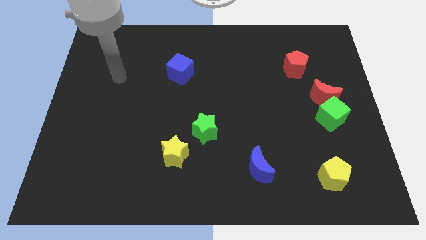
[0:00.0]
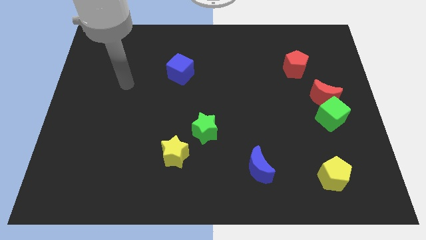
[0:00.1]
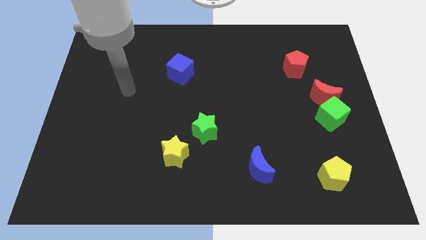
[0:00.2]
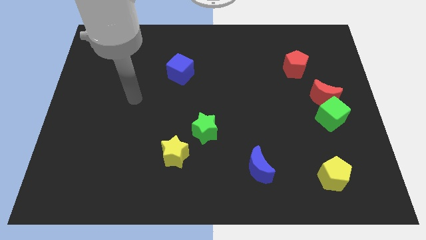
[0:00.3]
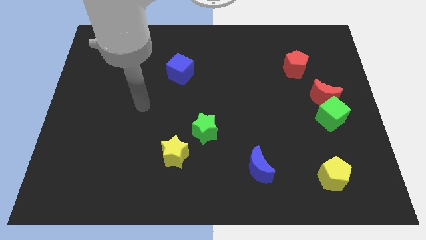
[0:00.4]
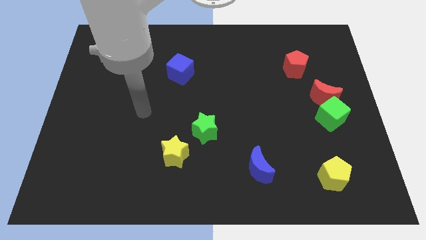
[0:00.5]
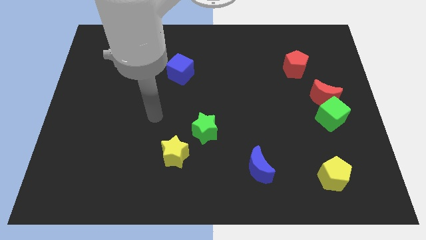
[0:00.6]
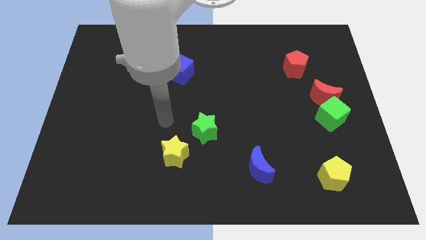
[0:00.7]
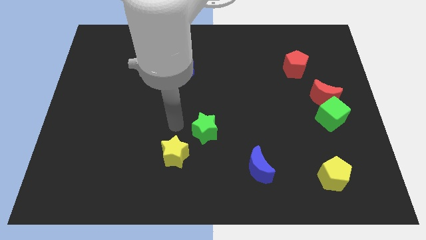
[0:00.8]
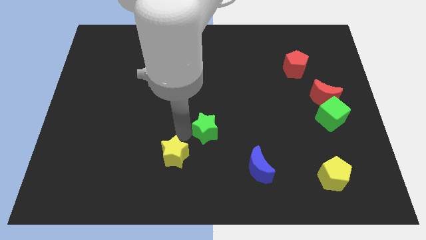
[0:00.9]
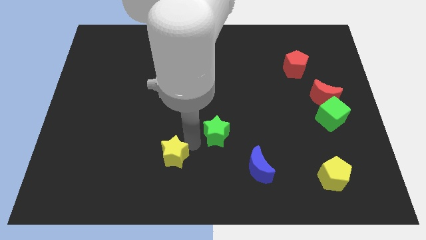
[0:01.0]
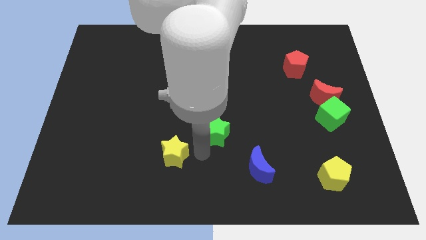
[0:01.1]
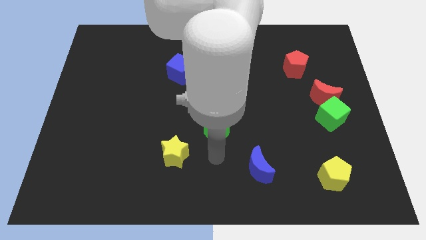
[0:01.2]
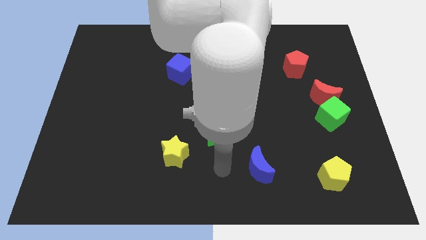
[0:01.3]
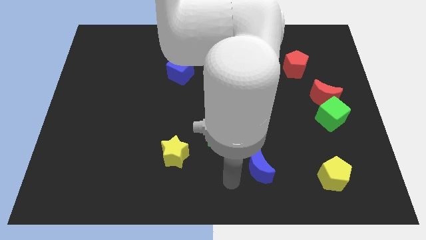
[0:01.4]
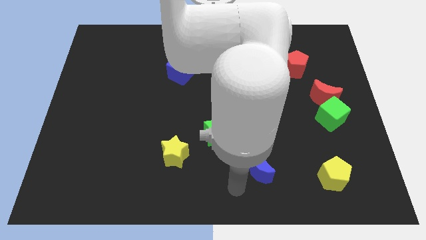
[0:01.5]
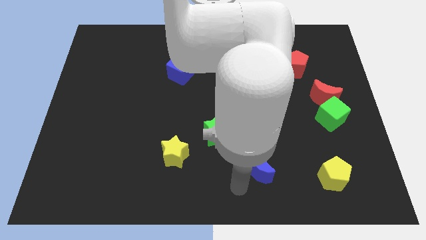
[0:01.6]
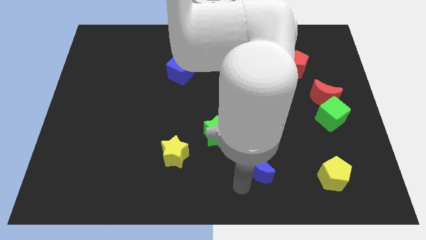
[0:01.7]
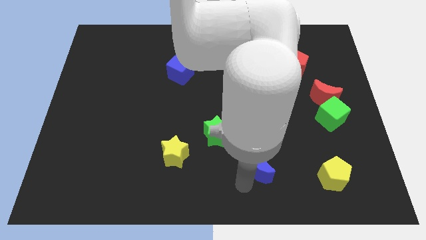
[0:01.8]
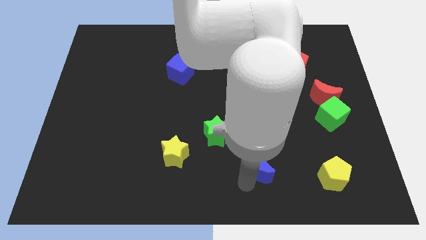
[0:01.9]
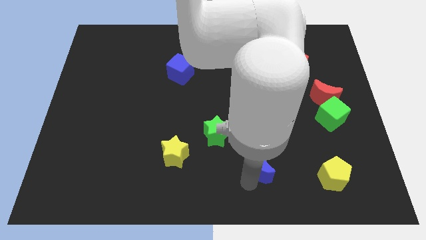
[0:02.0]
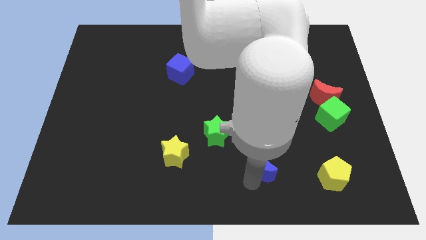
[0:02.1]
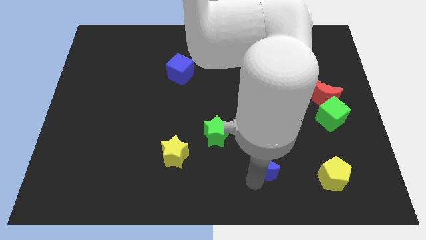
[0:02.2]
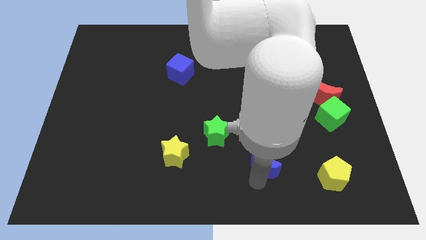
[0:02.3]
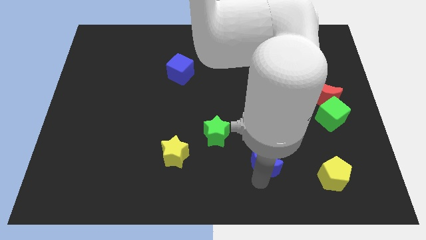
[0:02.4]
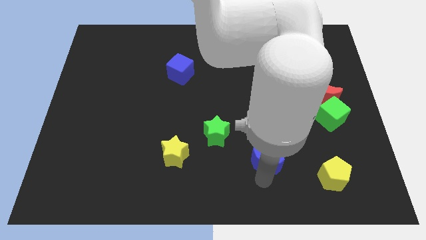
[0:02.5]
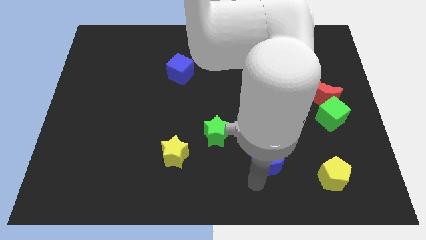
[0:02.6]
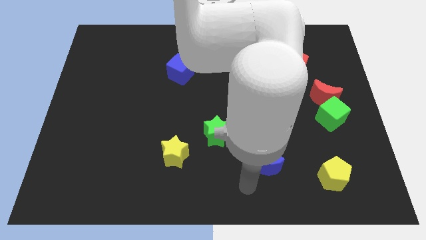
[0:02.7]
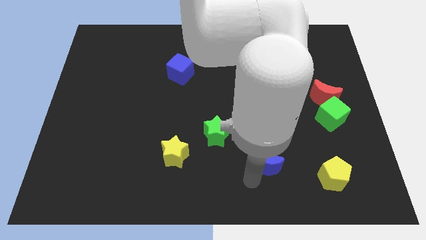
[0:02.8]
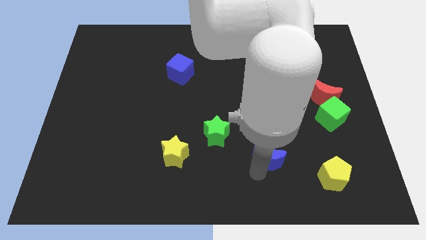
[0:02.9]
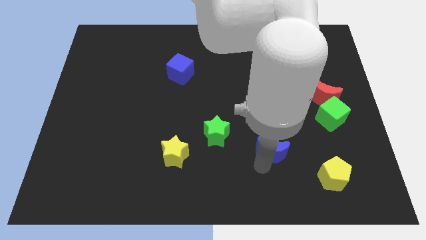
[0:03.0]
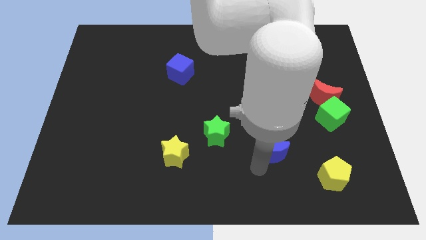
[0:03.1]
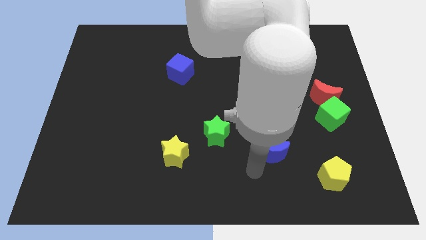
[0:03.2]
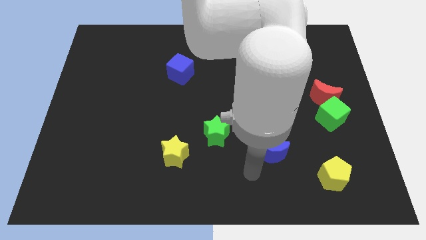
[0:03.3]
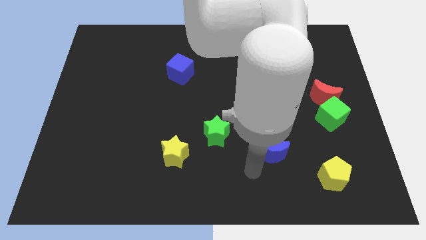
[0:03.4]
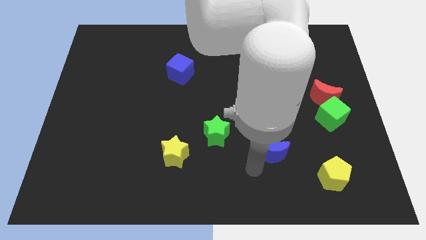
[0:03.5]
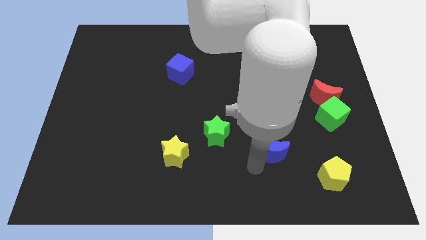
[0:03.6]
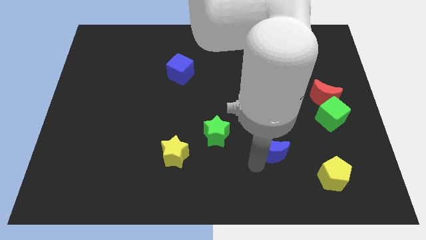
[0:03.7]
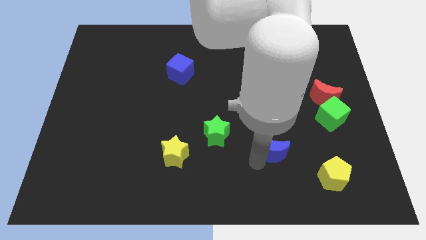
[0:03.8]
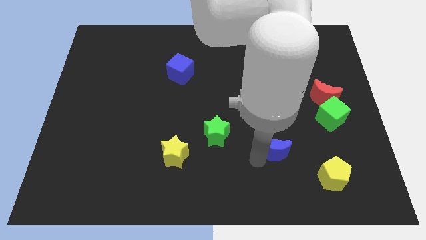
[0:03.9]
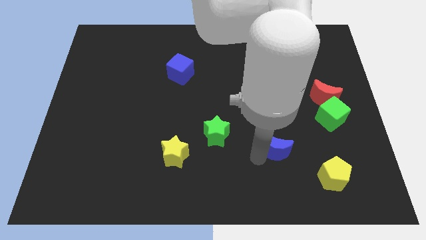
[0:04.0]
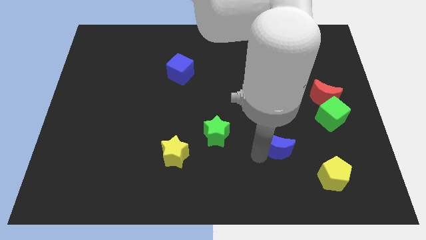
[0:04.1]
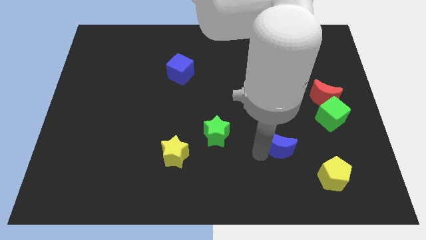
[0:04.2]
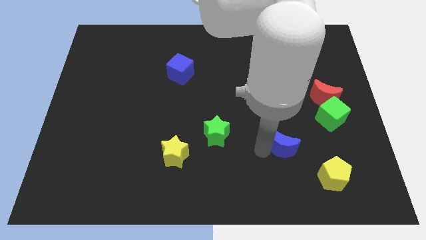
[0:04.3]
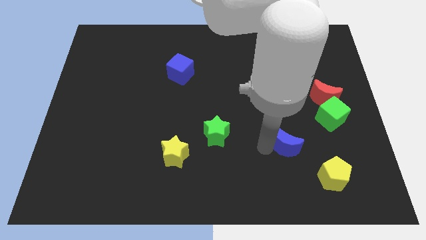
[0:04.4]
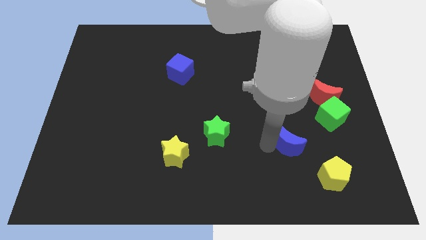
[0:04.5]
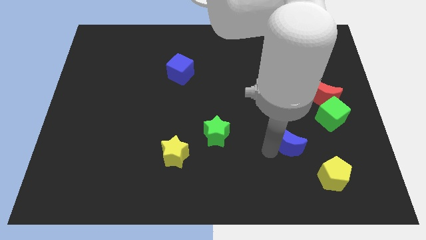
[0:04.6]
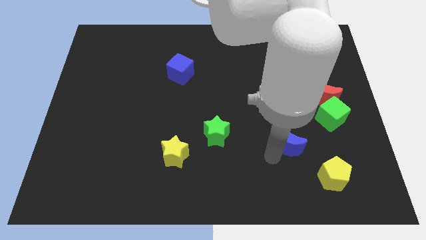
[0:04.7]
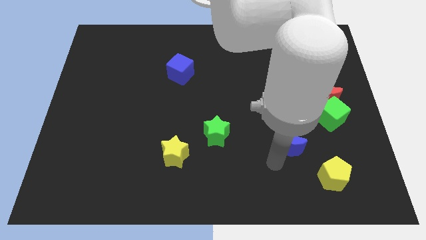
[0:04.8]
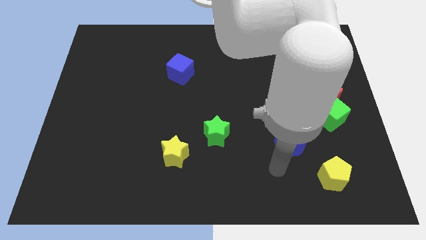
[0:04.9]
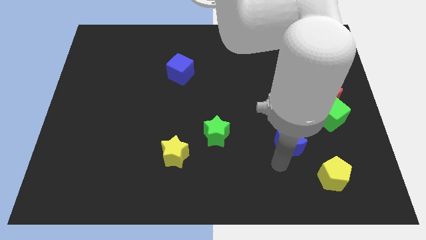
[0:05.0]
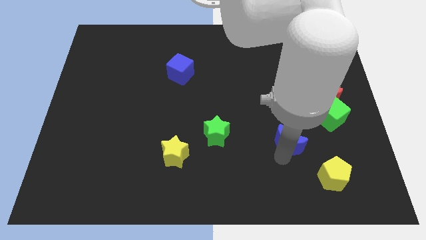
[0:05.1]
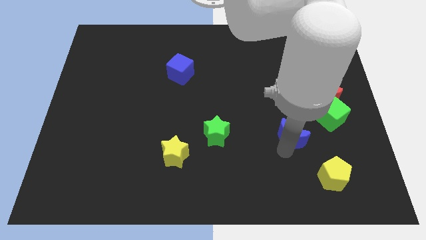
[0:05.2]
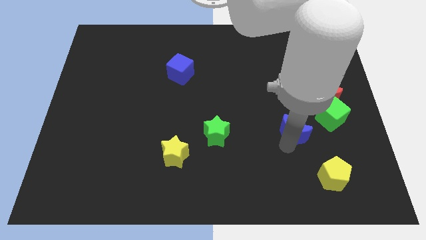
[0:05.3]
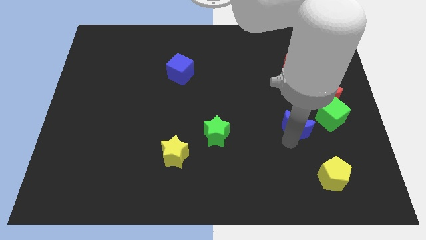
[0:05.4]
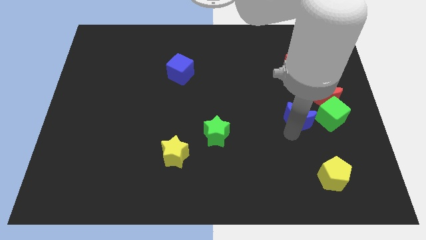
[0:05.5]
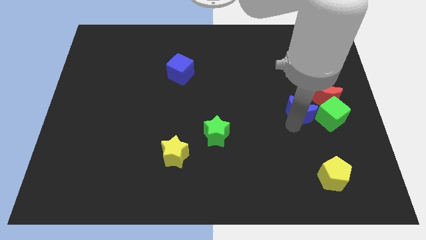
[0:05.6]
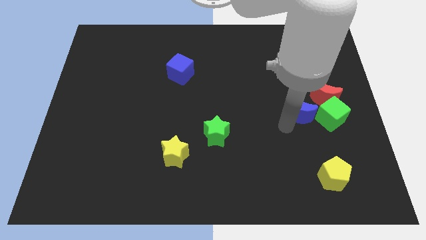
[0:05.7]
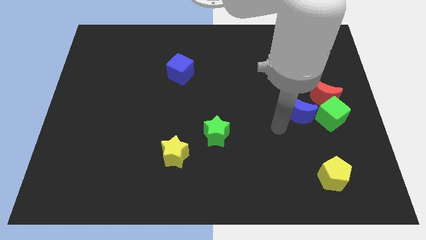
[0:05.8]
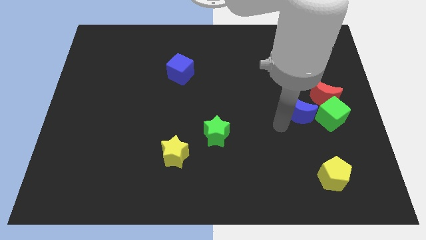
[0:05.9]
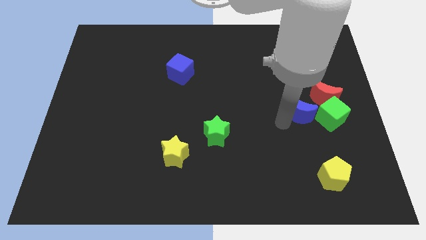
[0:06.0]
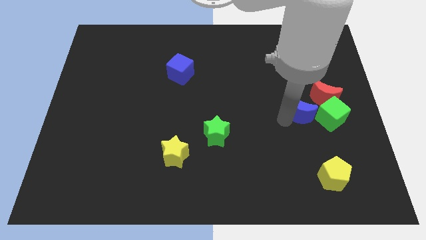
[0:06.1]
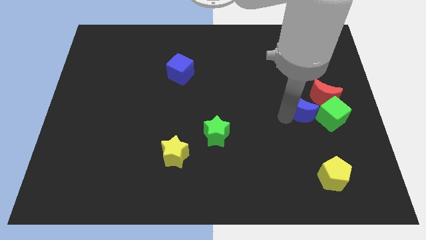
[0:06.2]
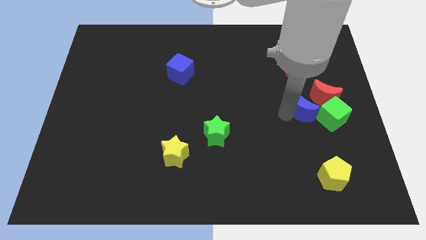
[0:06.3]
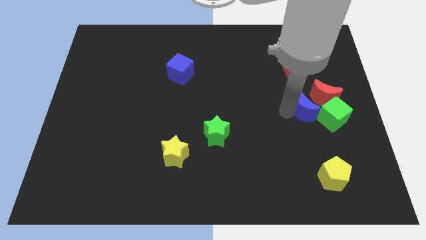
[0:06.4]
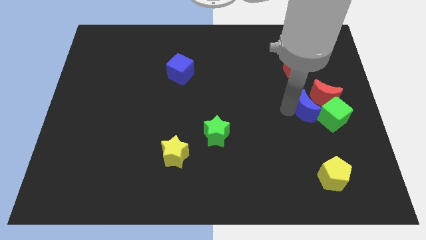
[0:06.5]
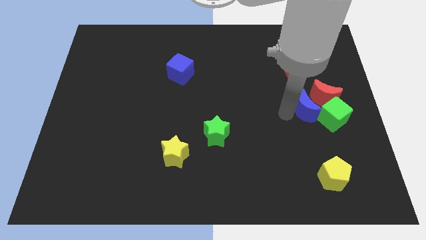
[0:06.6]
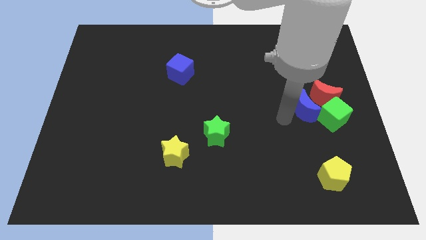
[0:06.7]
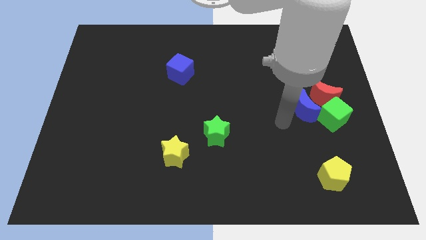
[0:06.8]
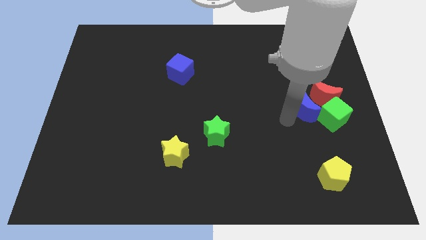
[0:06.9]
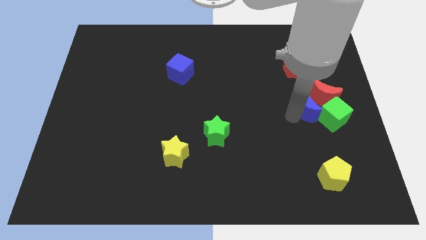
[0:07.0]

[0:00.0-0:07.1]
push the blue moon to the red moon

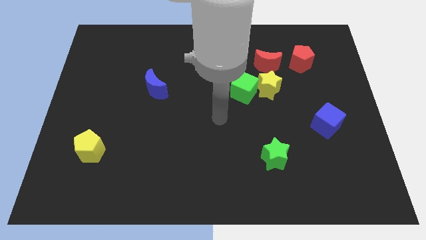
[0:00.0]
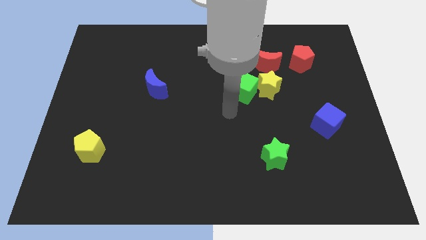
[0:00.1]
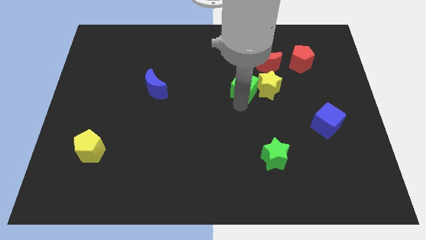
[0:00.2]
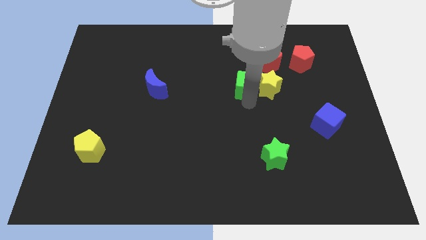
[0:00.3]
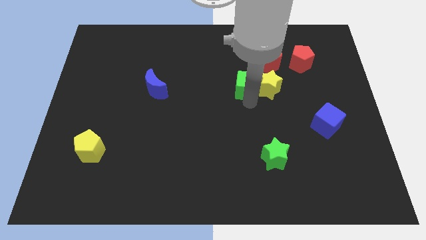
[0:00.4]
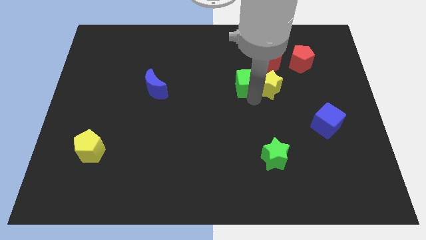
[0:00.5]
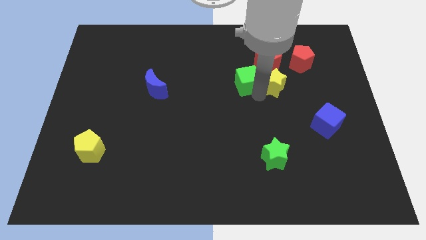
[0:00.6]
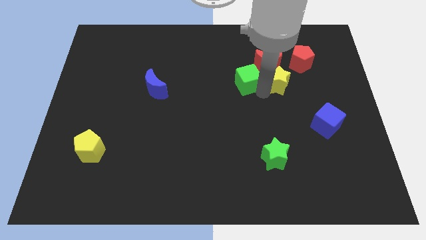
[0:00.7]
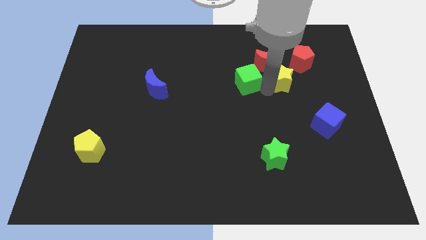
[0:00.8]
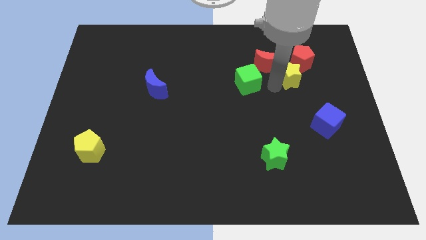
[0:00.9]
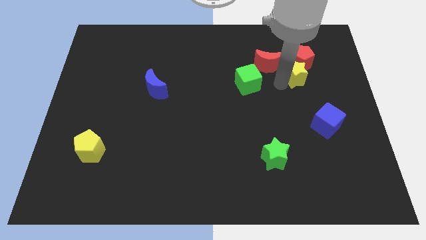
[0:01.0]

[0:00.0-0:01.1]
move the yellow star close to the red pentagon
